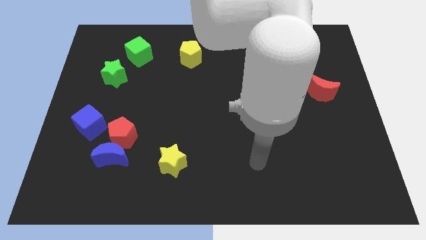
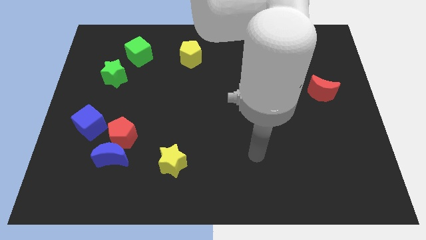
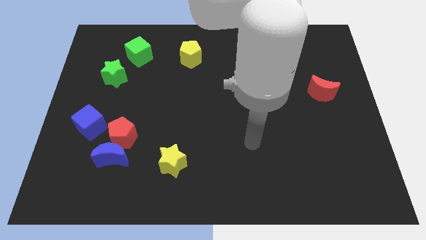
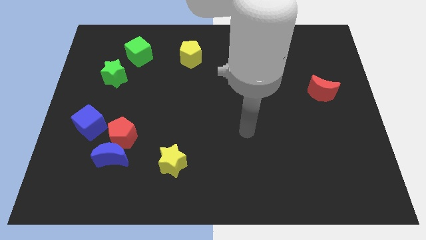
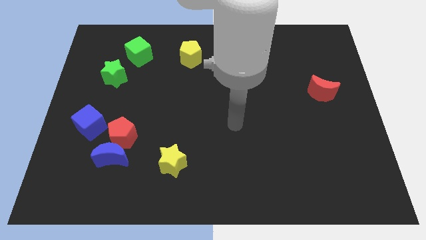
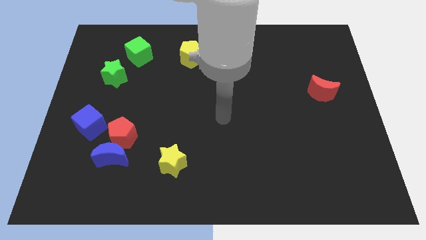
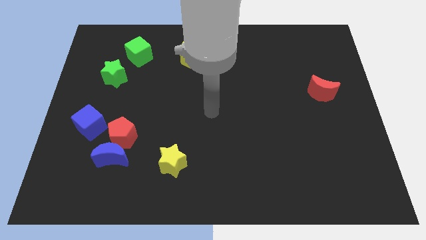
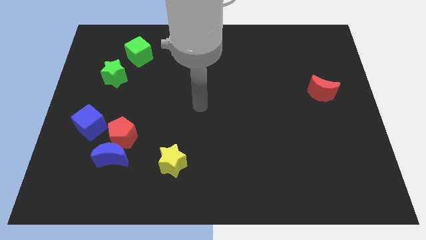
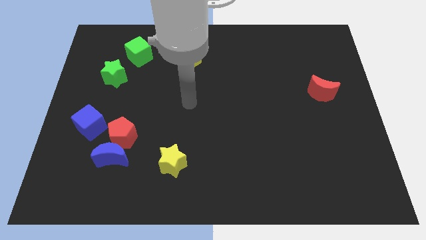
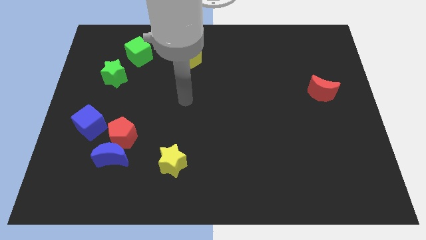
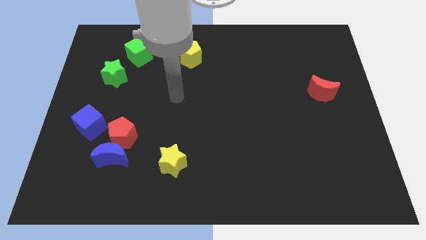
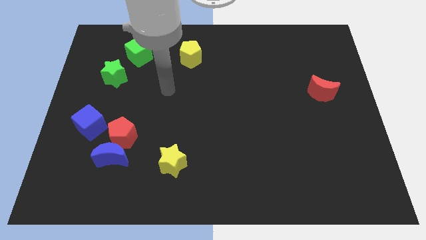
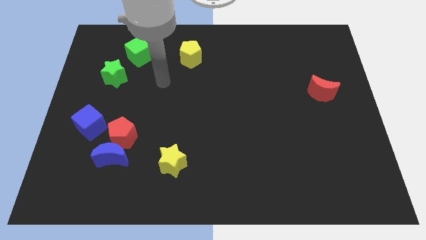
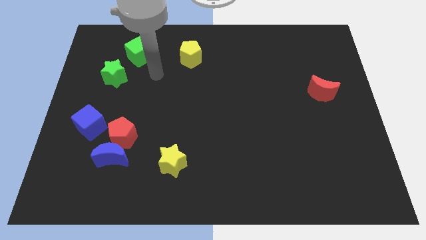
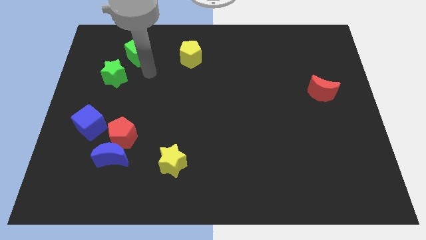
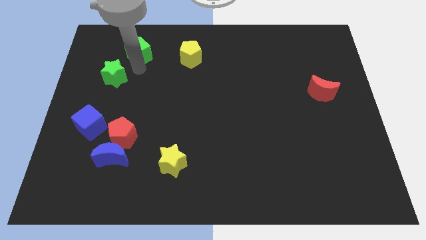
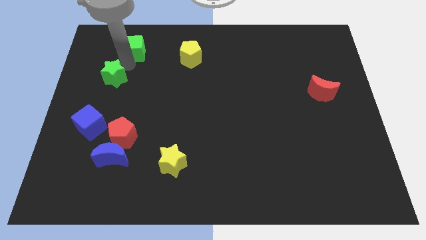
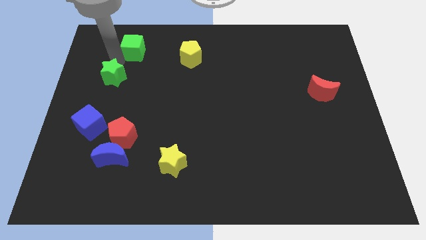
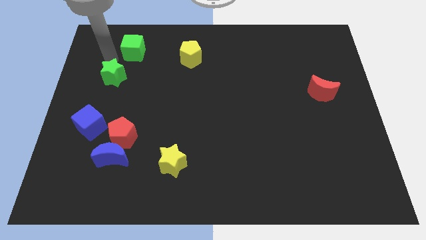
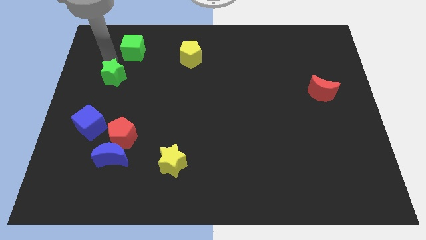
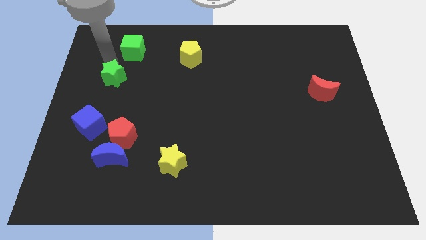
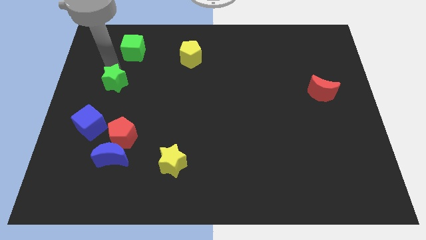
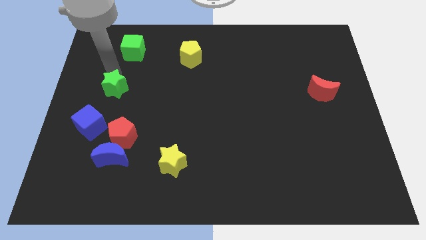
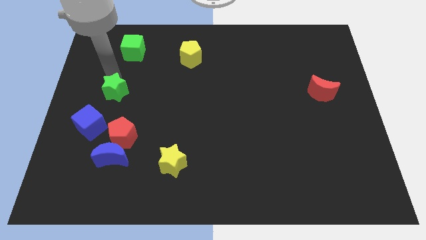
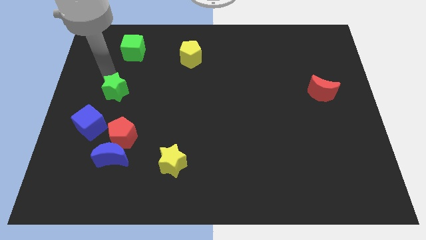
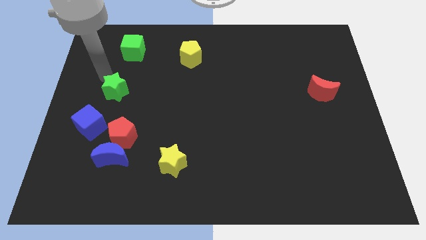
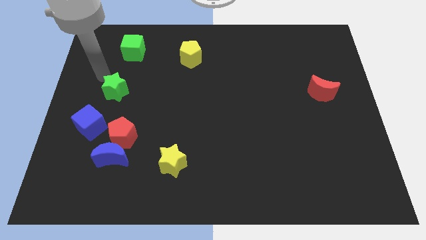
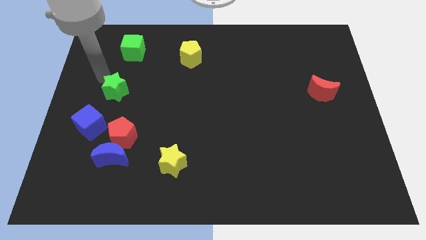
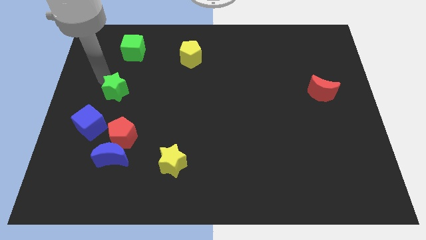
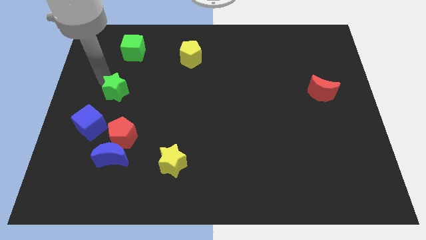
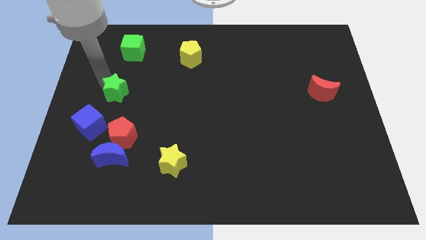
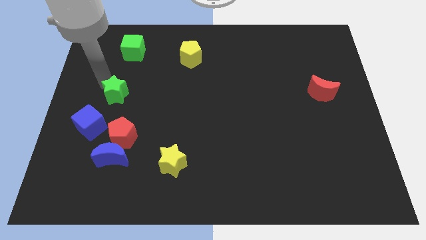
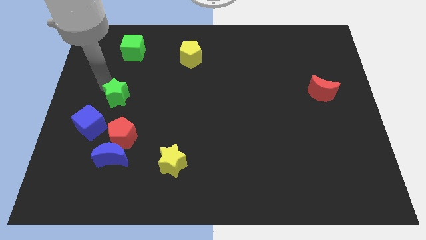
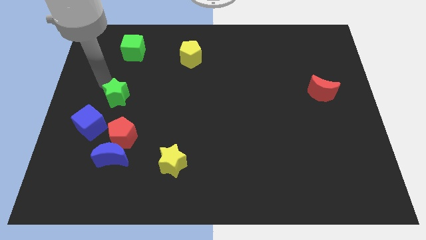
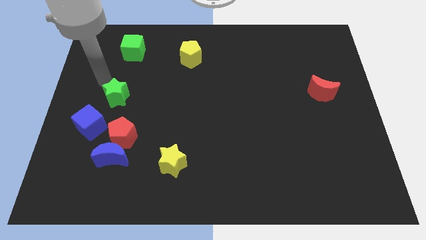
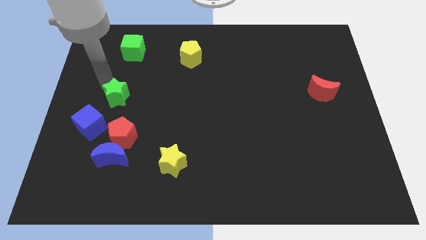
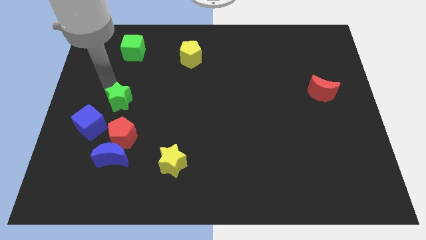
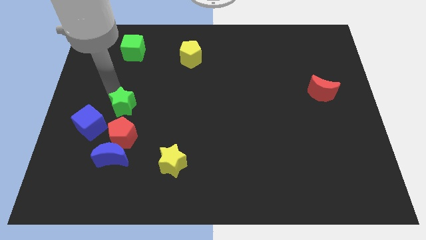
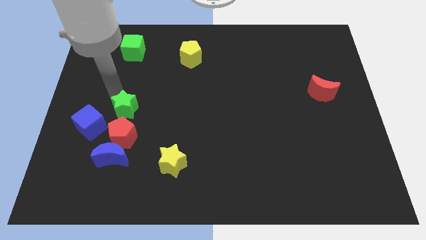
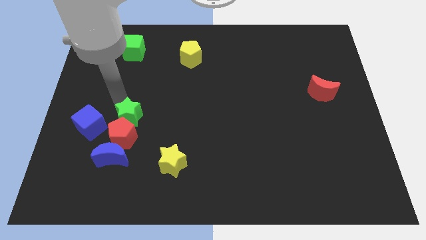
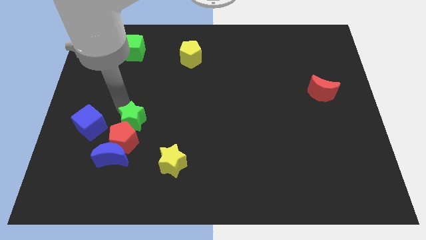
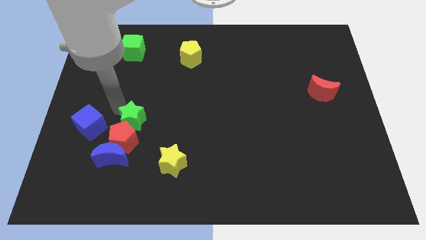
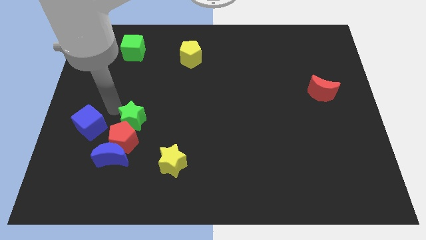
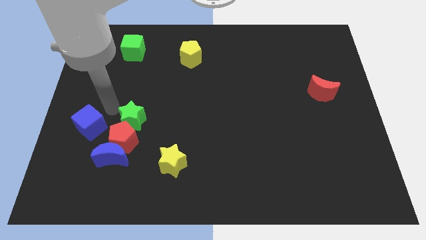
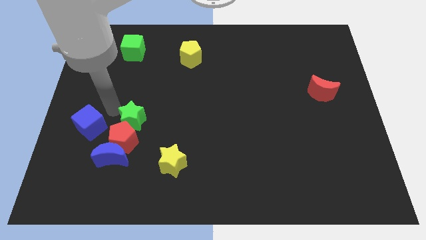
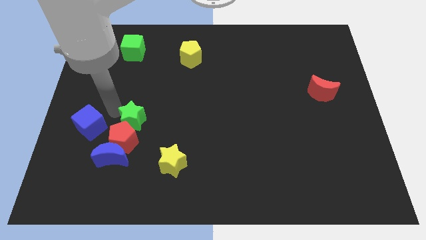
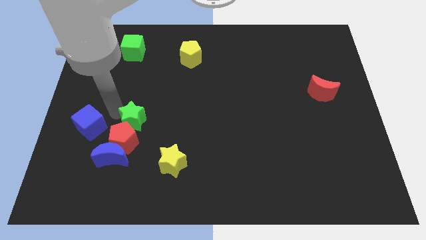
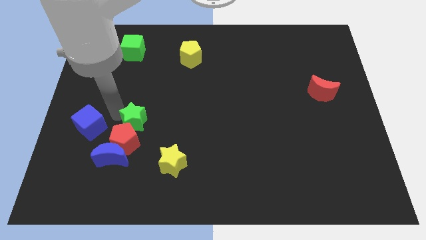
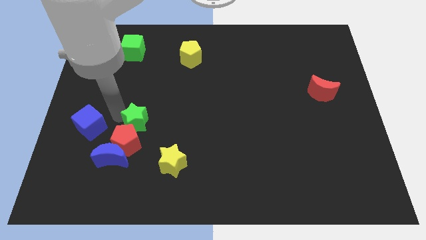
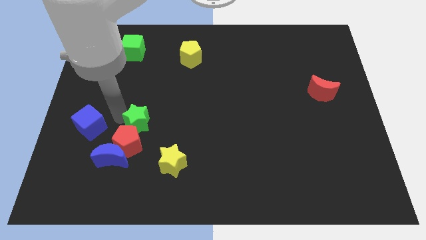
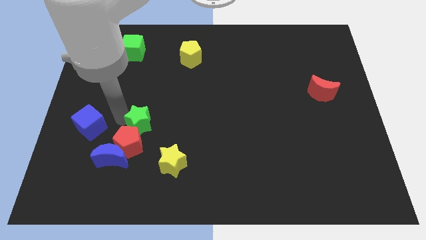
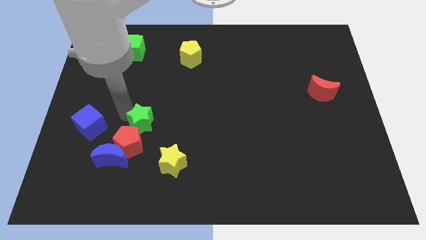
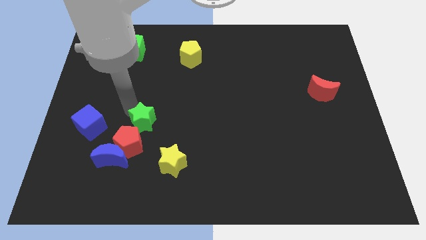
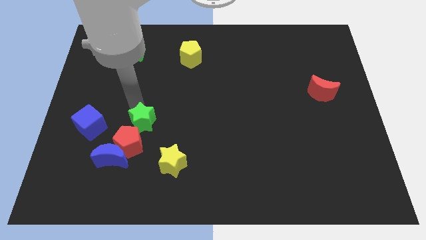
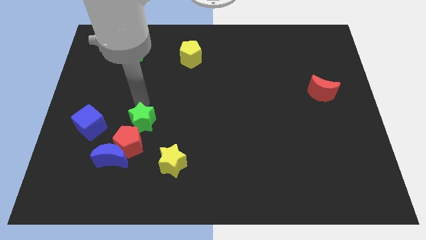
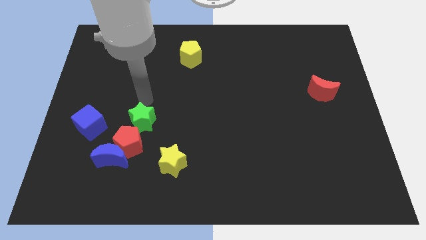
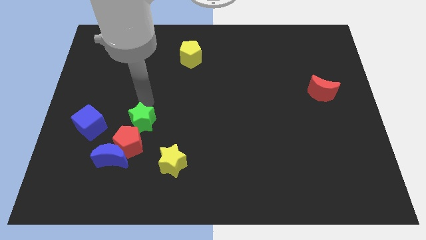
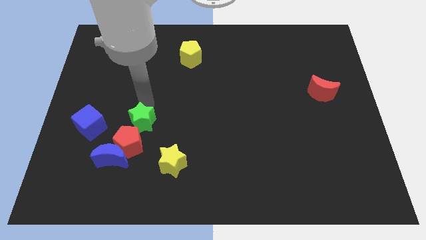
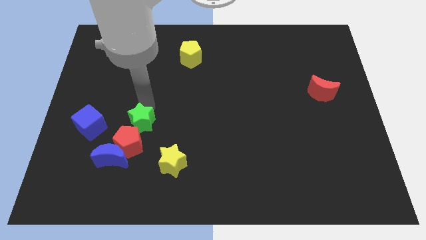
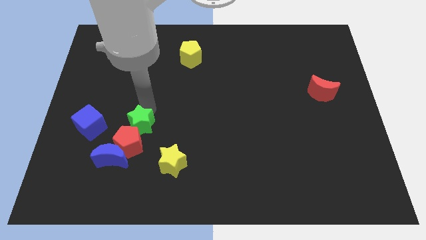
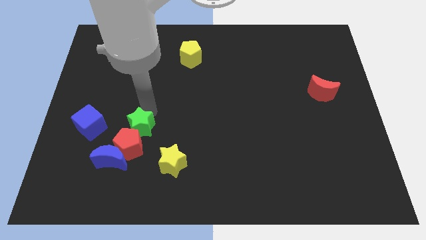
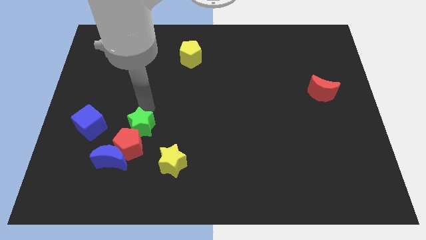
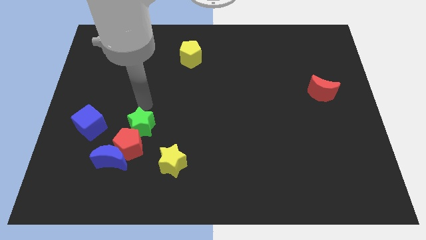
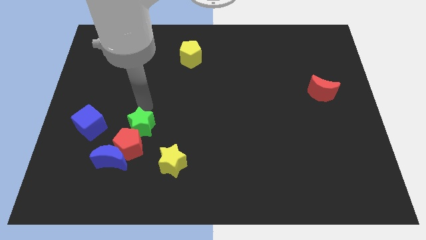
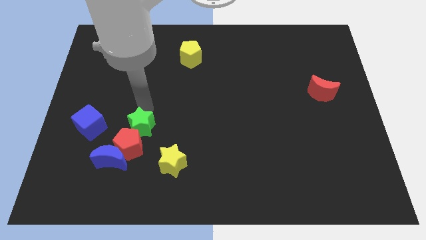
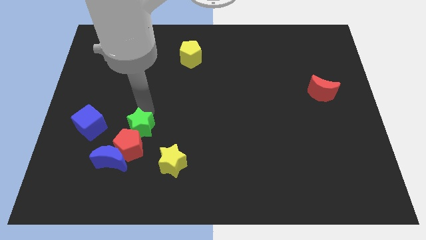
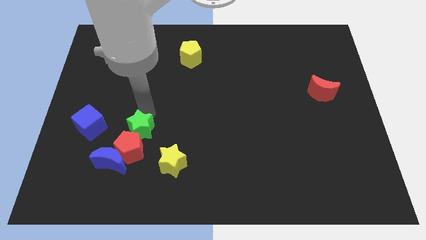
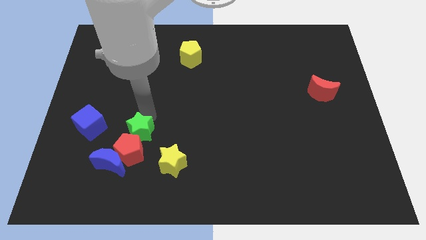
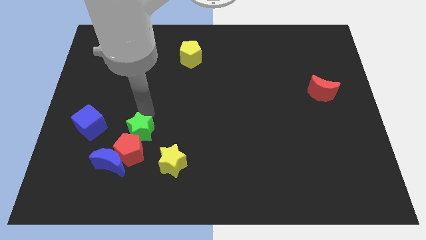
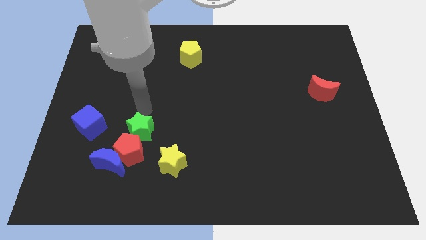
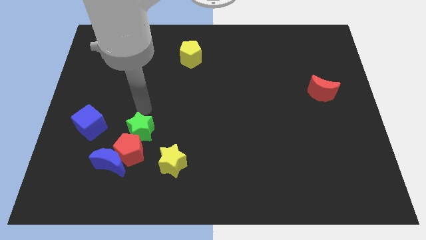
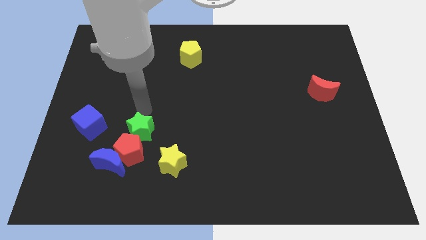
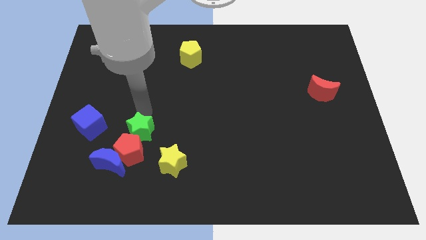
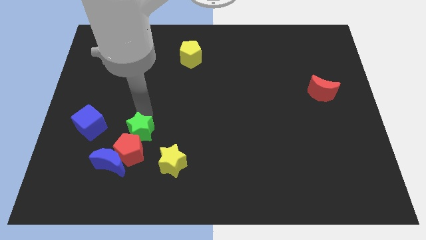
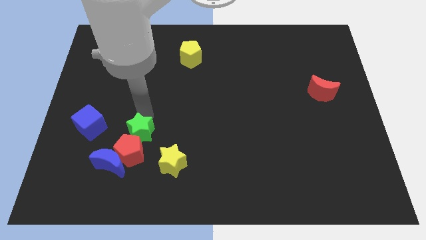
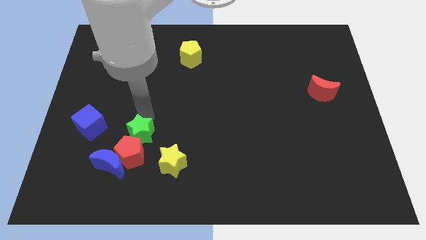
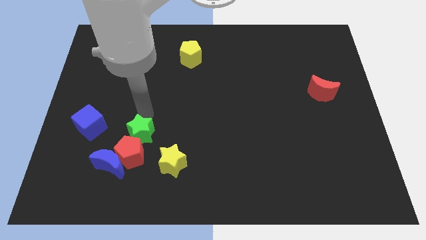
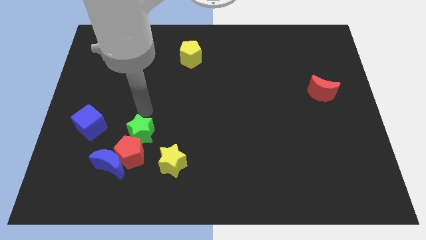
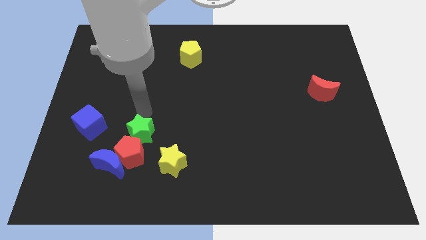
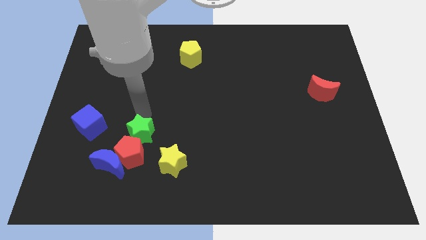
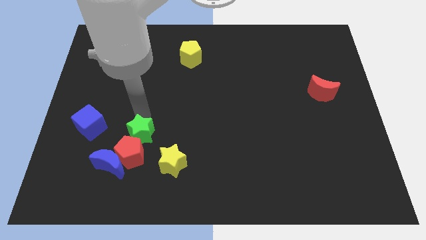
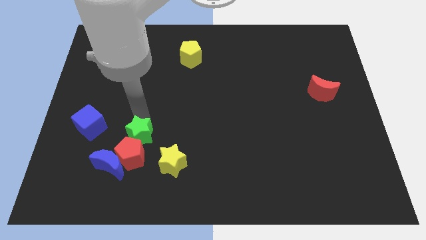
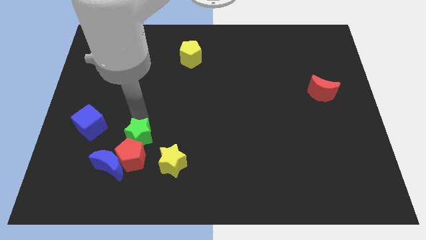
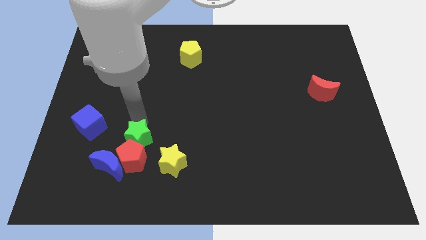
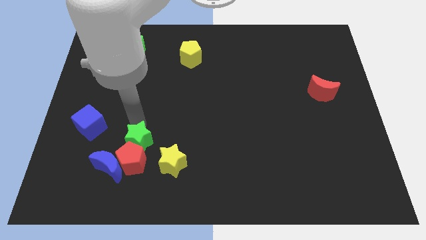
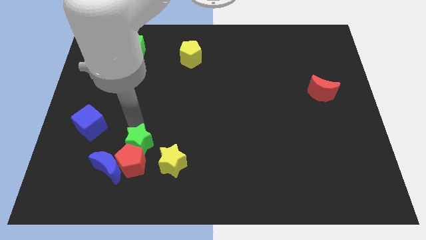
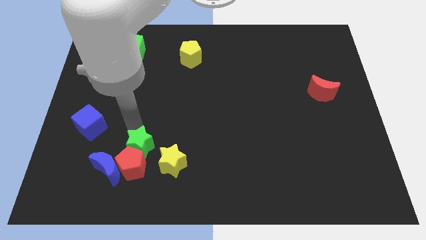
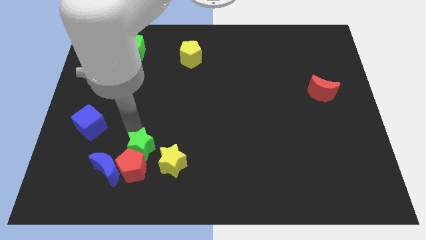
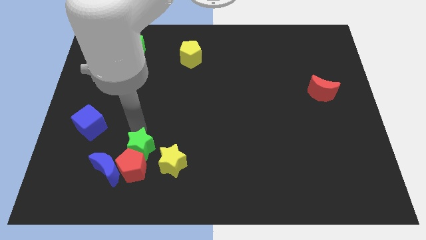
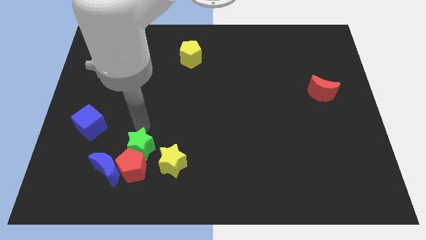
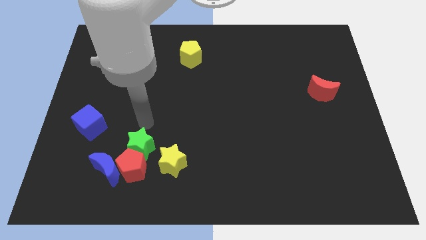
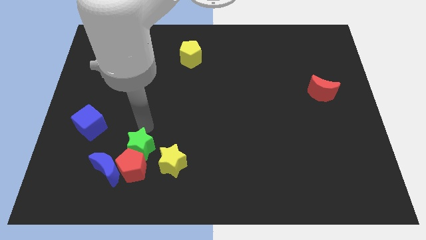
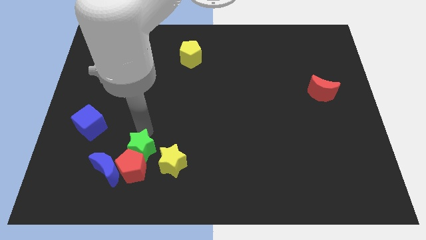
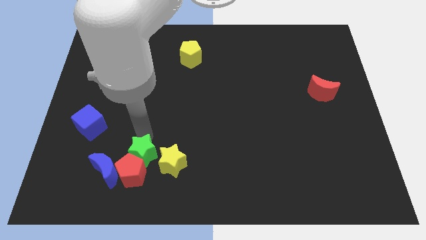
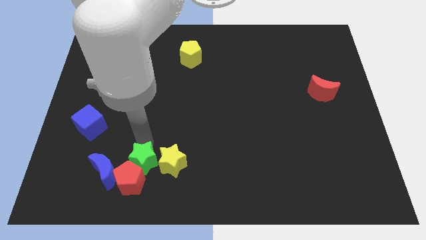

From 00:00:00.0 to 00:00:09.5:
push the green star to the bottom left side of the yellow star
